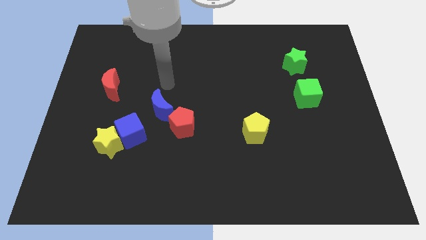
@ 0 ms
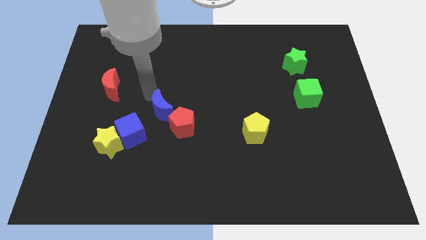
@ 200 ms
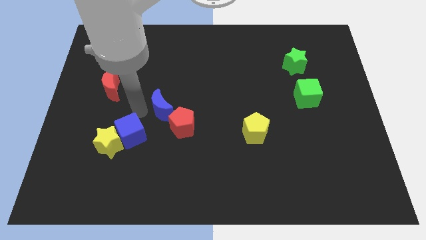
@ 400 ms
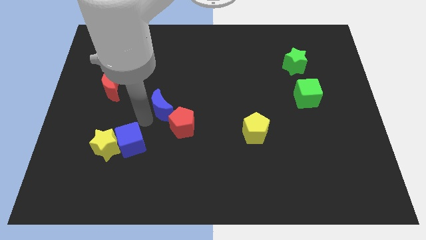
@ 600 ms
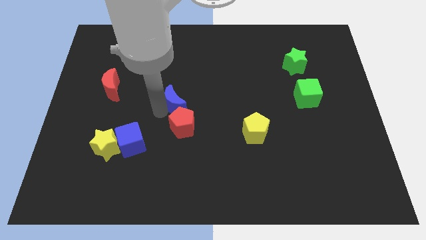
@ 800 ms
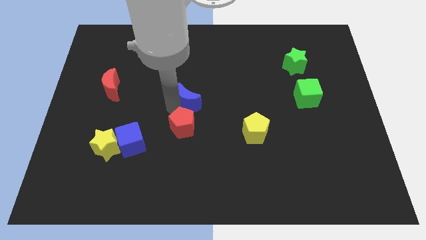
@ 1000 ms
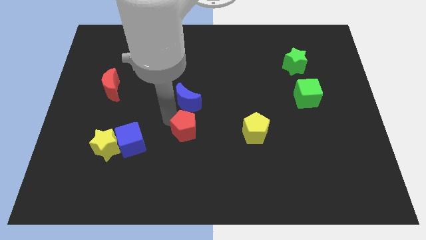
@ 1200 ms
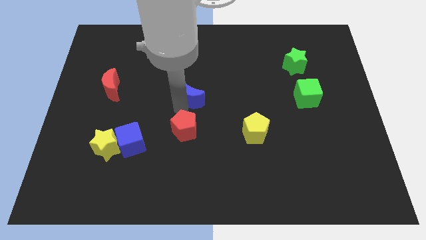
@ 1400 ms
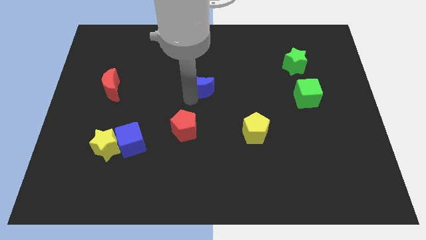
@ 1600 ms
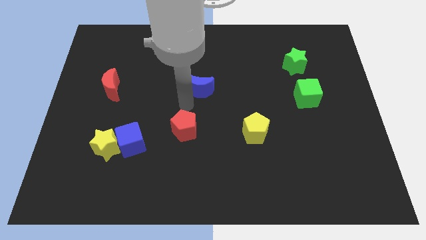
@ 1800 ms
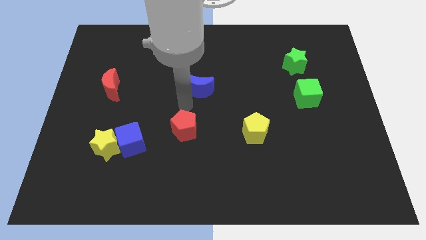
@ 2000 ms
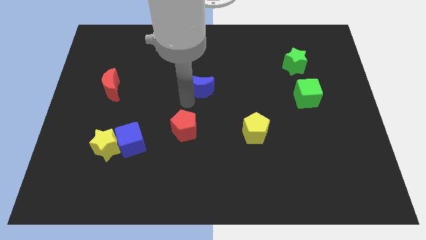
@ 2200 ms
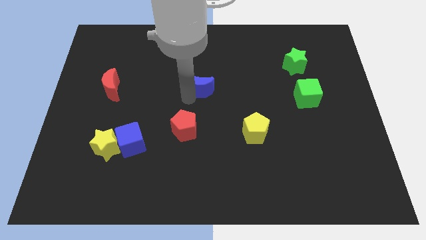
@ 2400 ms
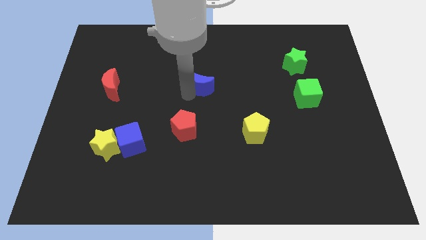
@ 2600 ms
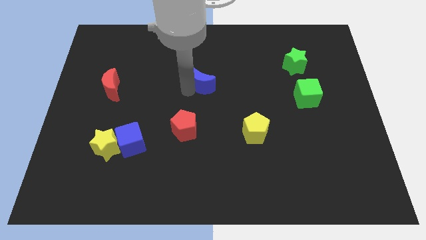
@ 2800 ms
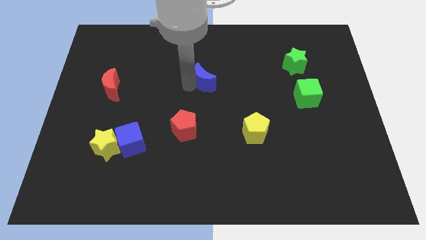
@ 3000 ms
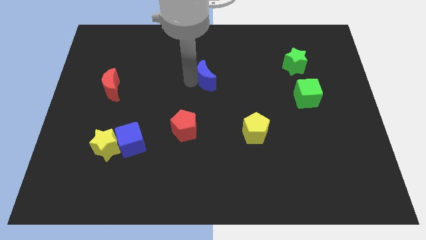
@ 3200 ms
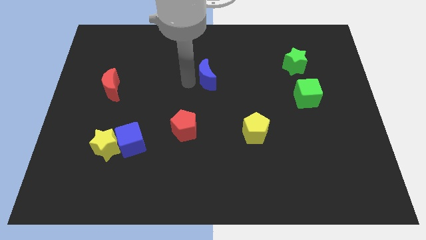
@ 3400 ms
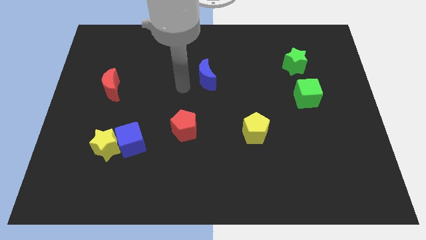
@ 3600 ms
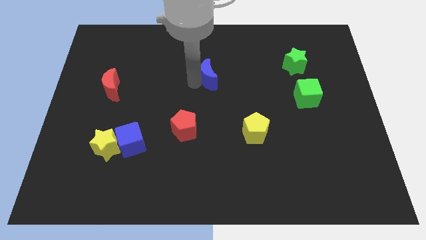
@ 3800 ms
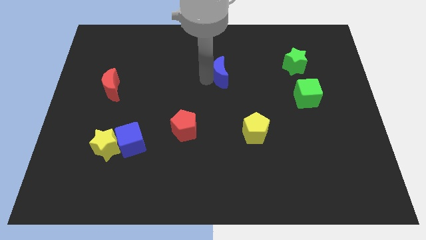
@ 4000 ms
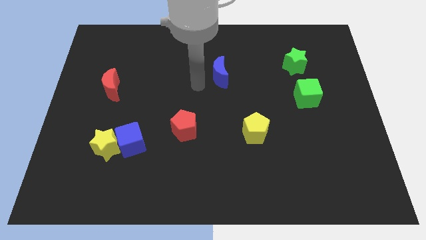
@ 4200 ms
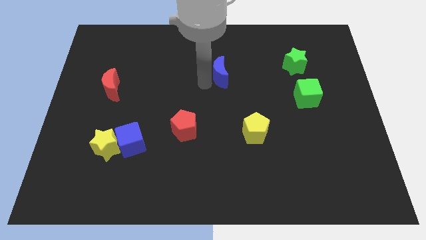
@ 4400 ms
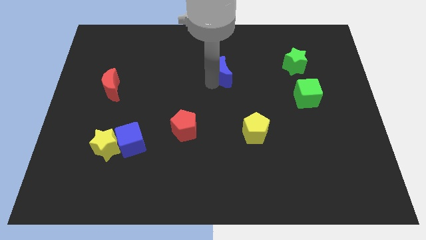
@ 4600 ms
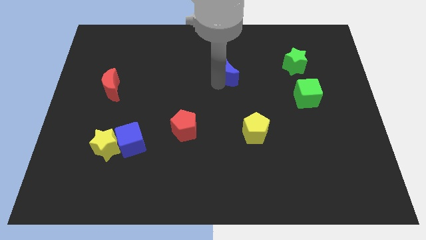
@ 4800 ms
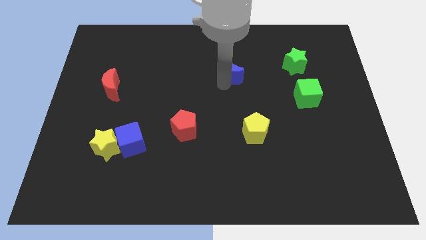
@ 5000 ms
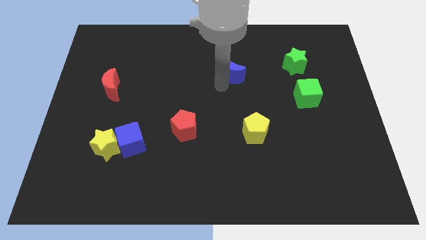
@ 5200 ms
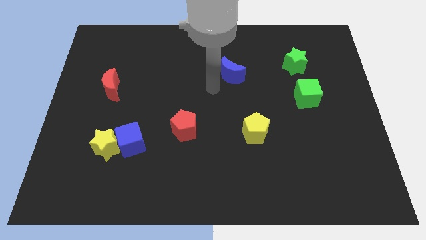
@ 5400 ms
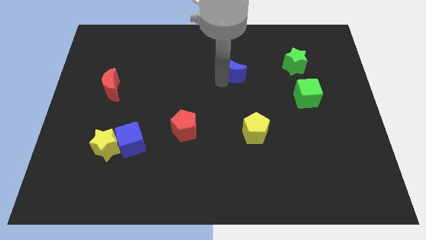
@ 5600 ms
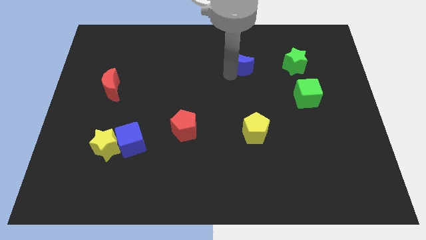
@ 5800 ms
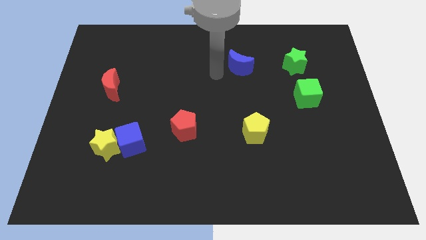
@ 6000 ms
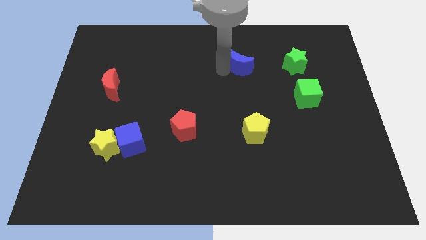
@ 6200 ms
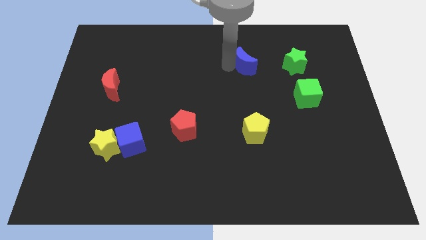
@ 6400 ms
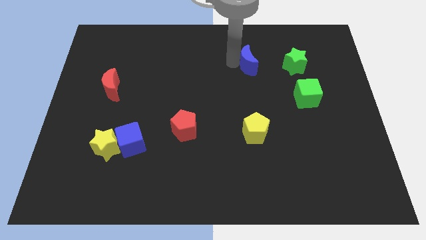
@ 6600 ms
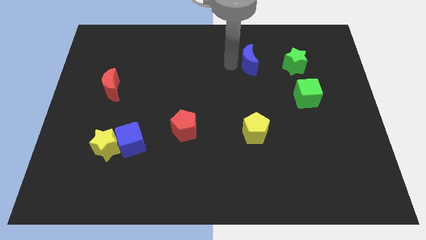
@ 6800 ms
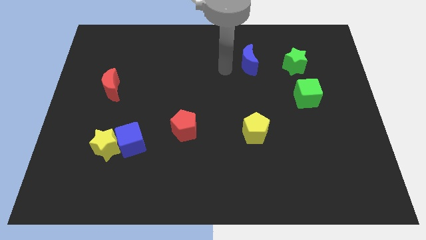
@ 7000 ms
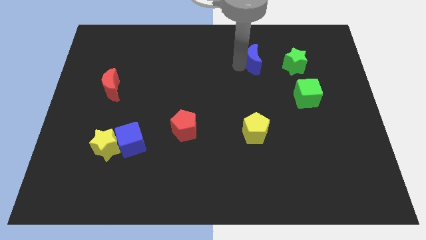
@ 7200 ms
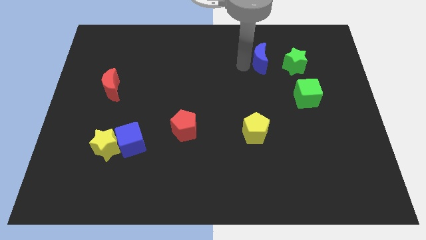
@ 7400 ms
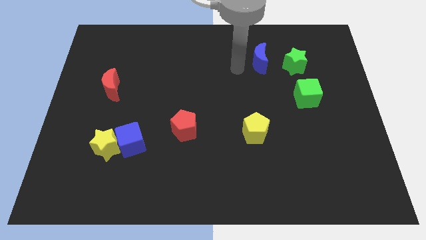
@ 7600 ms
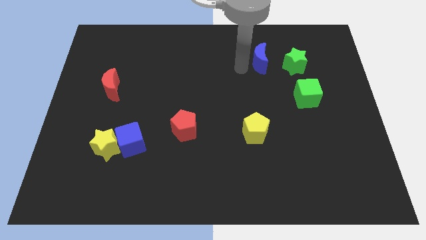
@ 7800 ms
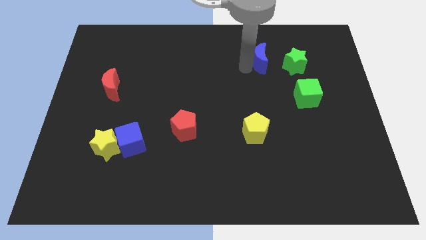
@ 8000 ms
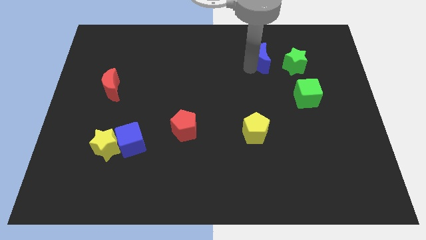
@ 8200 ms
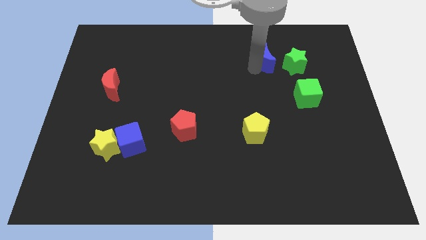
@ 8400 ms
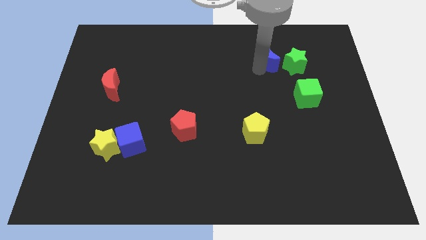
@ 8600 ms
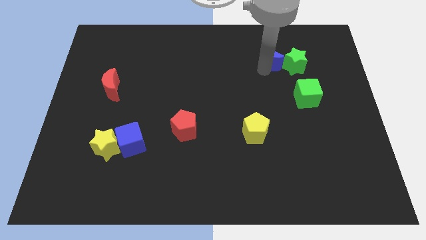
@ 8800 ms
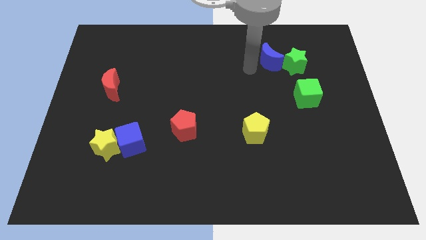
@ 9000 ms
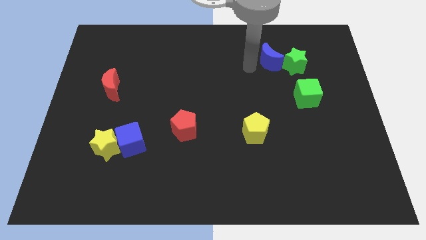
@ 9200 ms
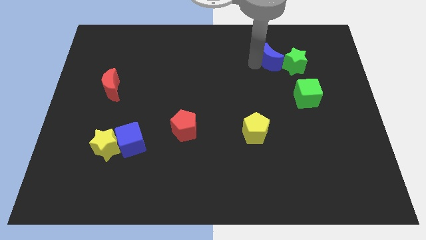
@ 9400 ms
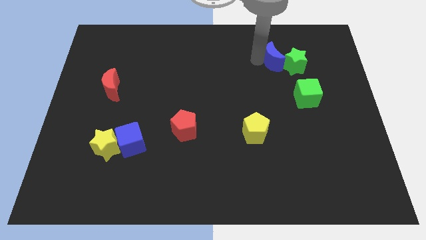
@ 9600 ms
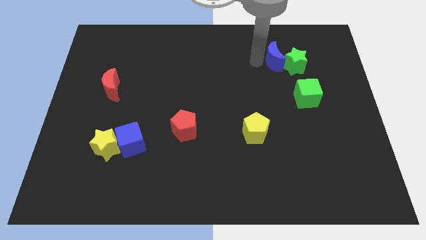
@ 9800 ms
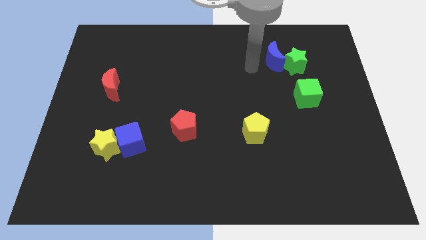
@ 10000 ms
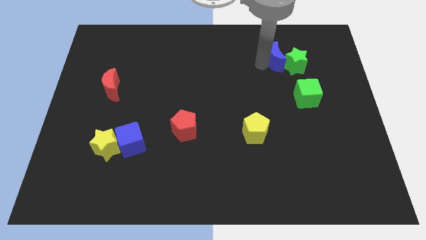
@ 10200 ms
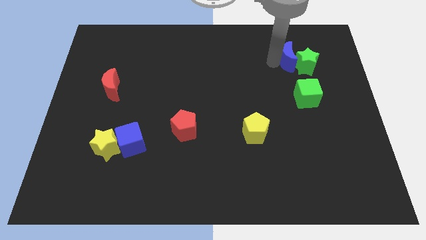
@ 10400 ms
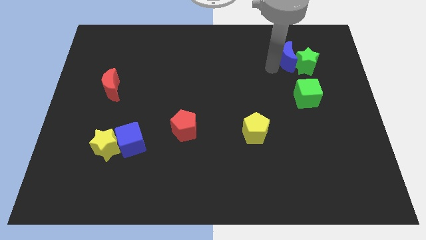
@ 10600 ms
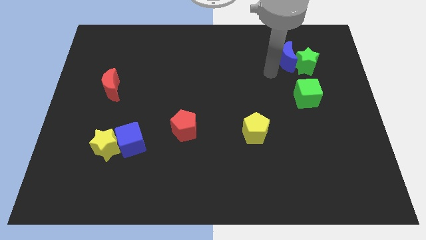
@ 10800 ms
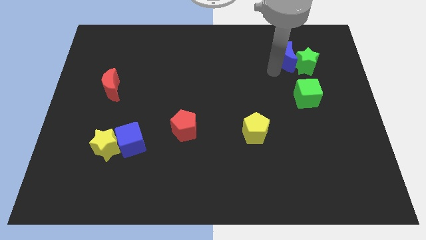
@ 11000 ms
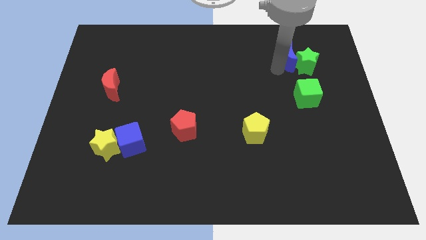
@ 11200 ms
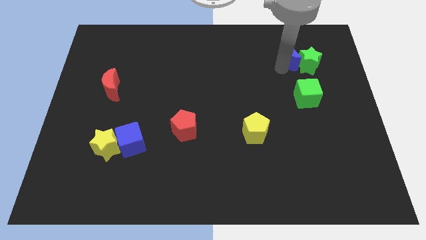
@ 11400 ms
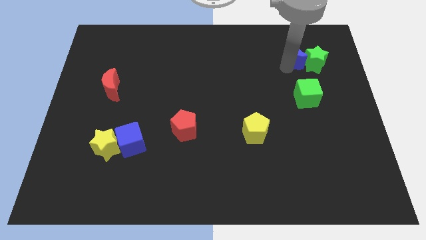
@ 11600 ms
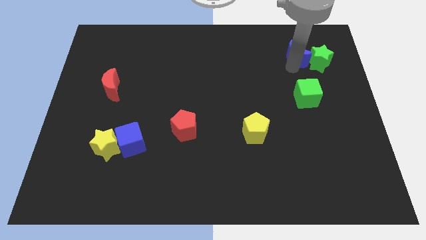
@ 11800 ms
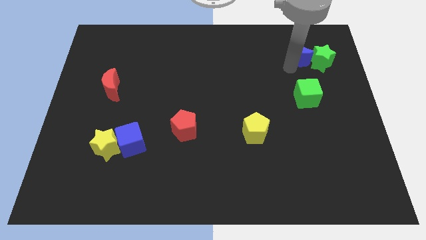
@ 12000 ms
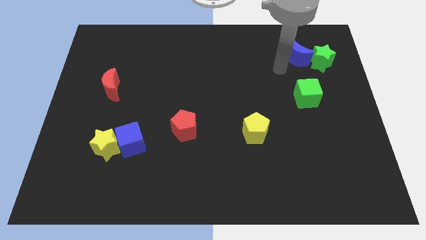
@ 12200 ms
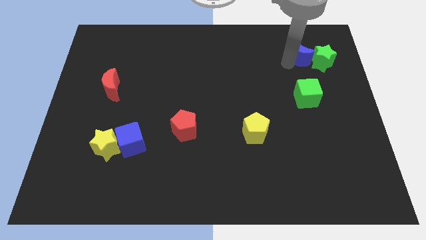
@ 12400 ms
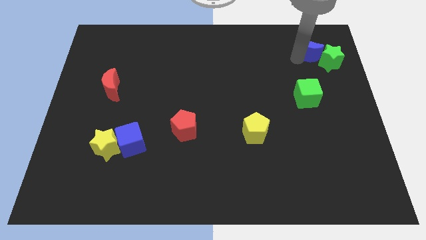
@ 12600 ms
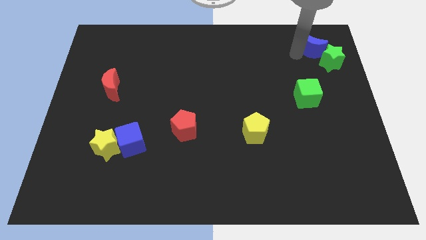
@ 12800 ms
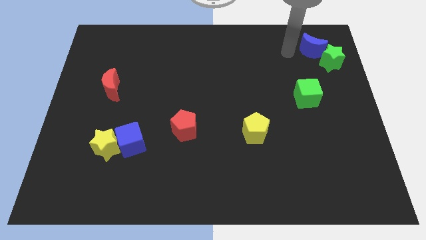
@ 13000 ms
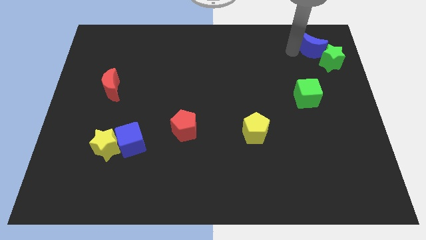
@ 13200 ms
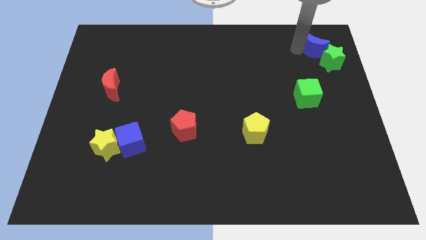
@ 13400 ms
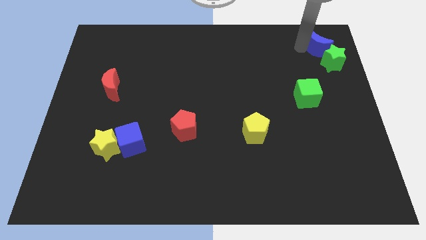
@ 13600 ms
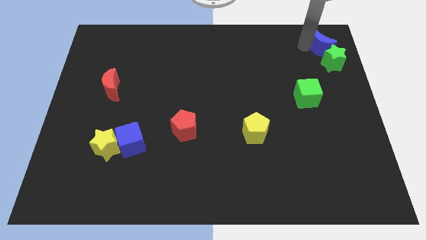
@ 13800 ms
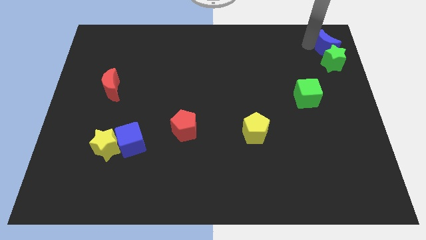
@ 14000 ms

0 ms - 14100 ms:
slide the blue moon to the upper right corner
